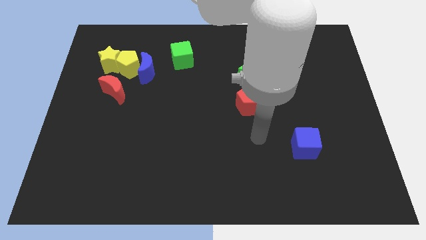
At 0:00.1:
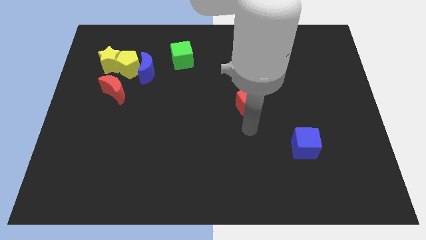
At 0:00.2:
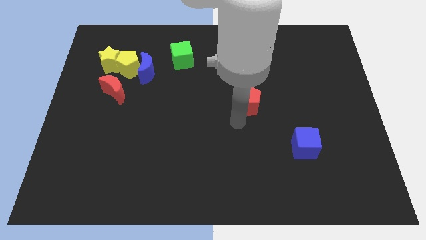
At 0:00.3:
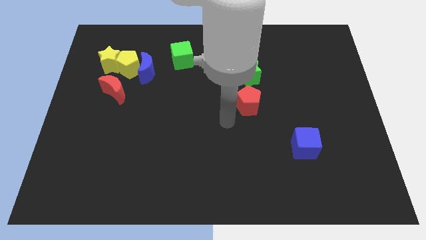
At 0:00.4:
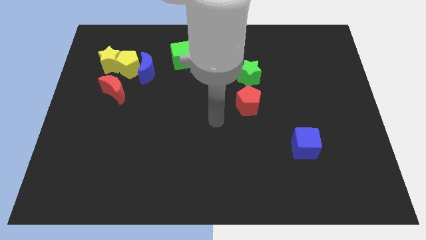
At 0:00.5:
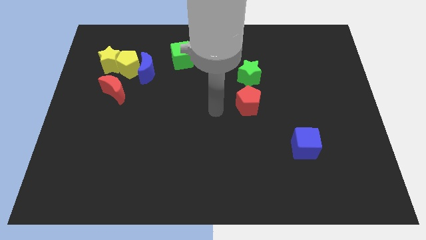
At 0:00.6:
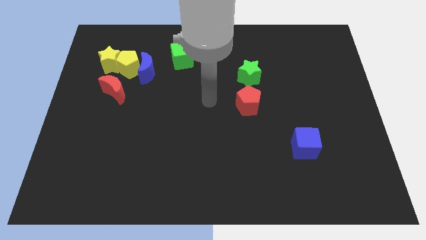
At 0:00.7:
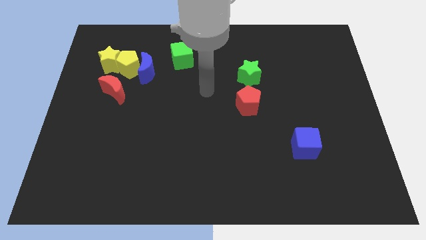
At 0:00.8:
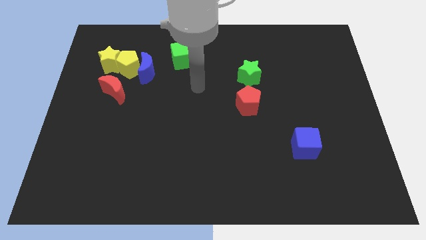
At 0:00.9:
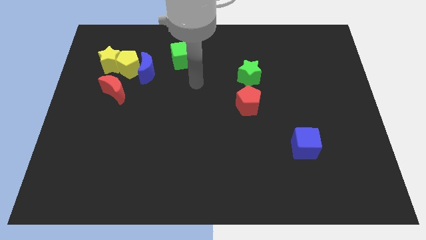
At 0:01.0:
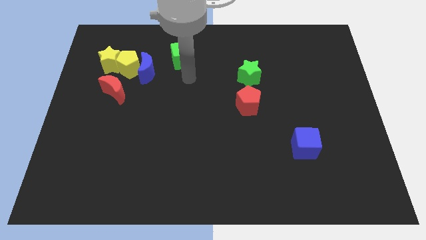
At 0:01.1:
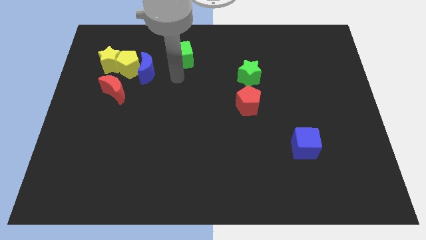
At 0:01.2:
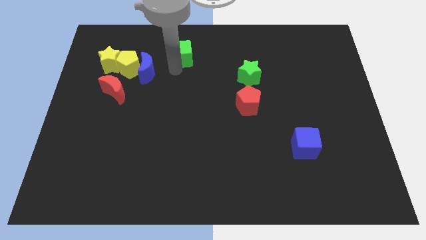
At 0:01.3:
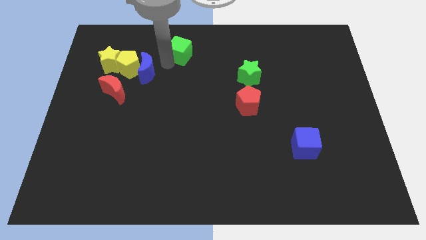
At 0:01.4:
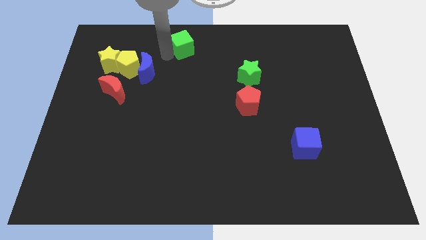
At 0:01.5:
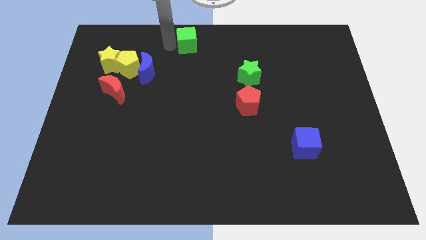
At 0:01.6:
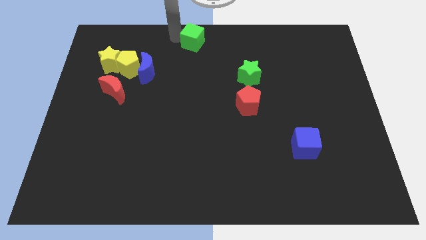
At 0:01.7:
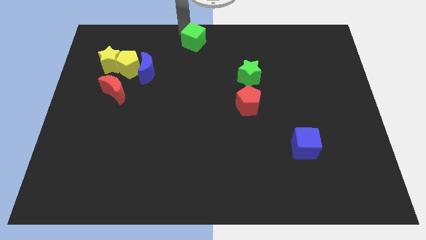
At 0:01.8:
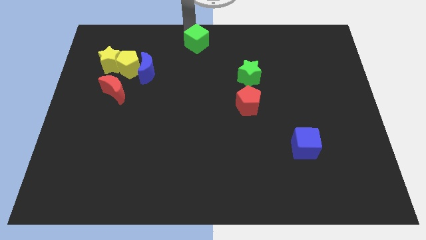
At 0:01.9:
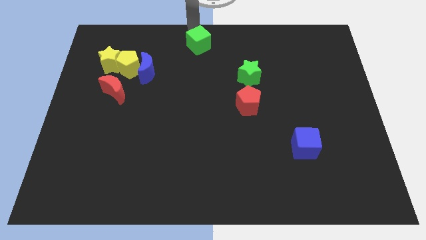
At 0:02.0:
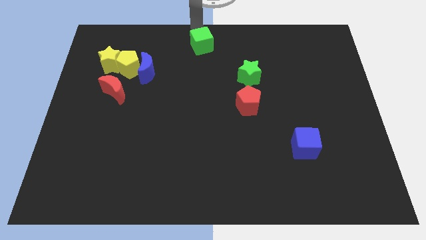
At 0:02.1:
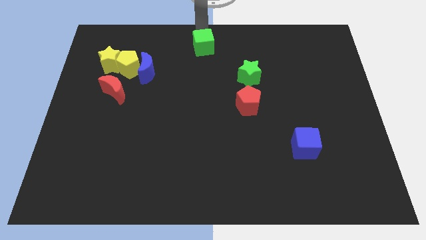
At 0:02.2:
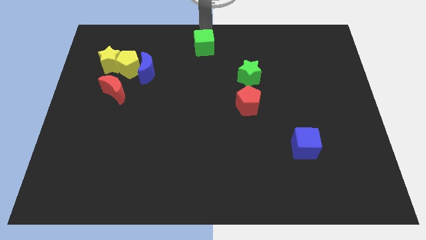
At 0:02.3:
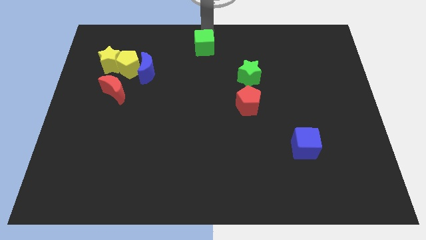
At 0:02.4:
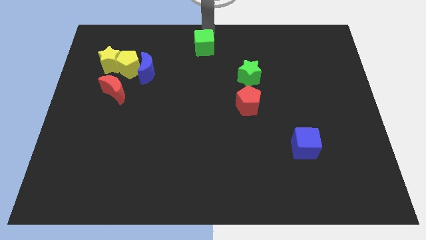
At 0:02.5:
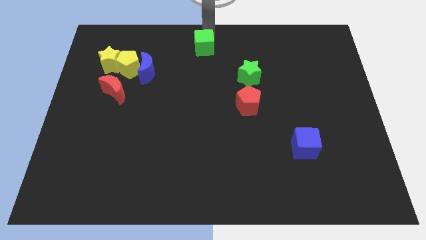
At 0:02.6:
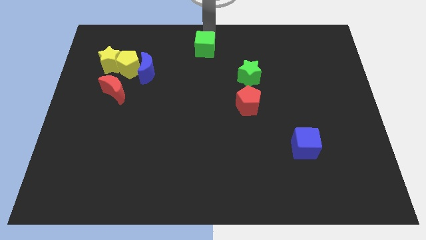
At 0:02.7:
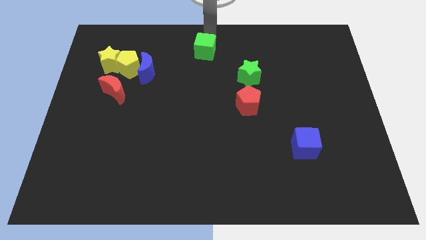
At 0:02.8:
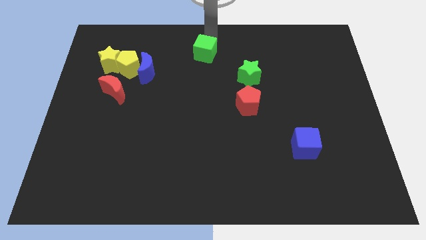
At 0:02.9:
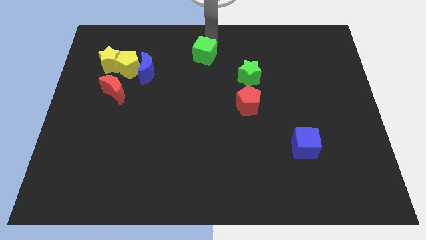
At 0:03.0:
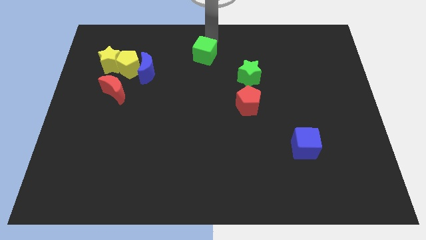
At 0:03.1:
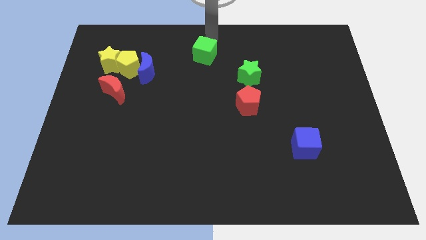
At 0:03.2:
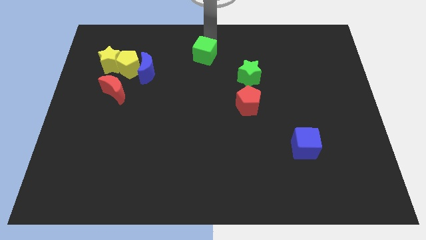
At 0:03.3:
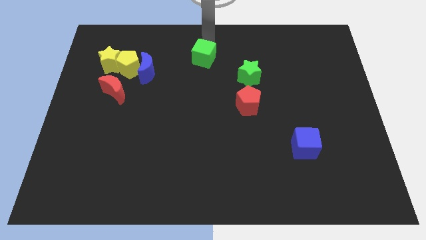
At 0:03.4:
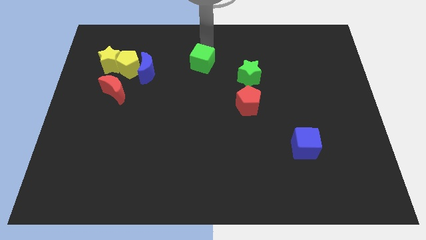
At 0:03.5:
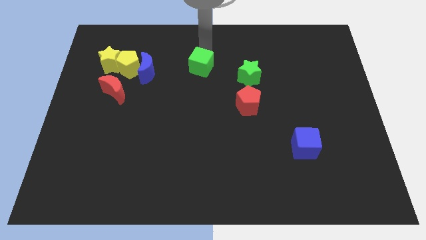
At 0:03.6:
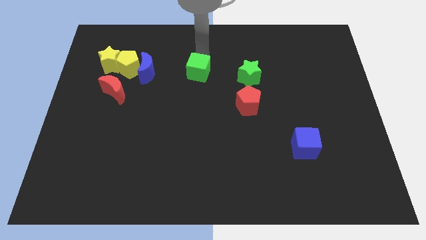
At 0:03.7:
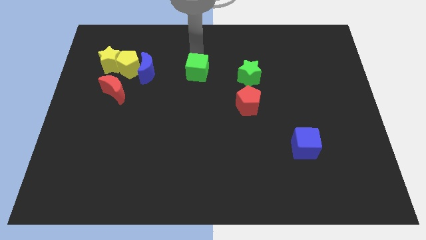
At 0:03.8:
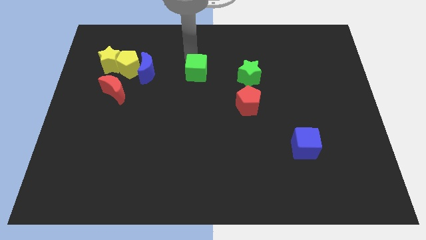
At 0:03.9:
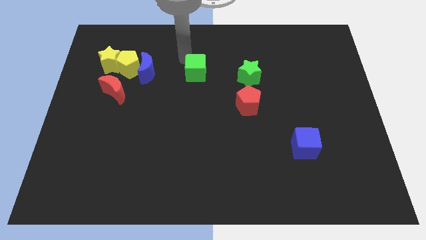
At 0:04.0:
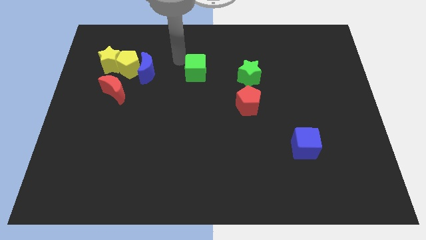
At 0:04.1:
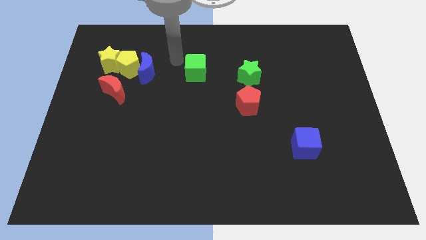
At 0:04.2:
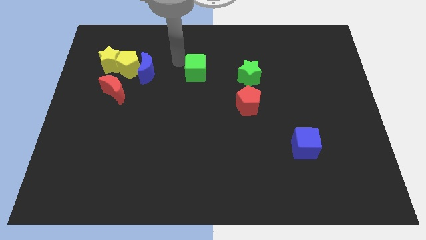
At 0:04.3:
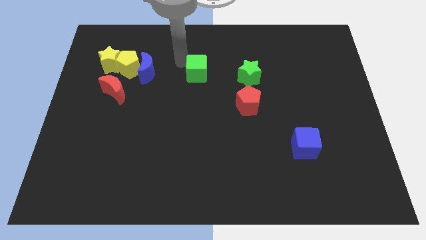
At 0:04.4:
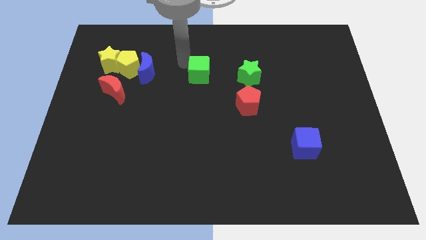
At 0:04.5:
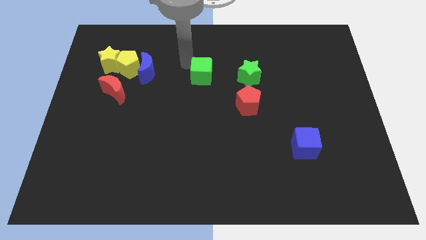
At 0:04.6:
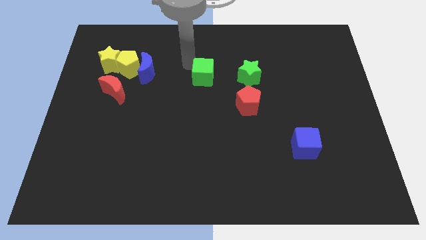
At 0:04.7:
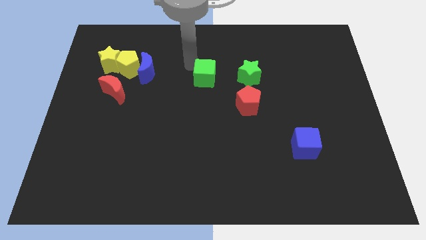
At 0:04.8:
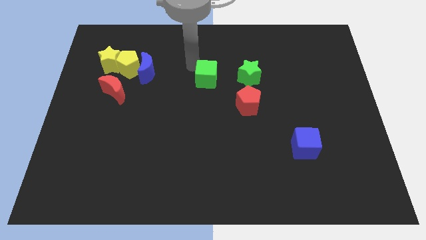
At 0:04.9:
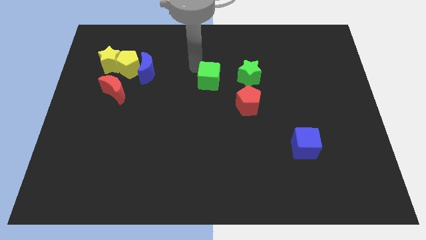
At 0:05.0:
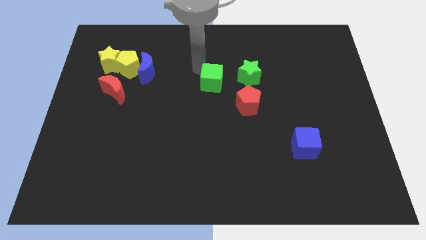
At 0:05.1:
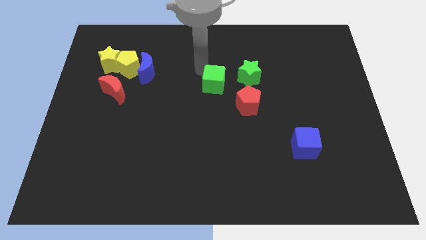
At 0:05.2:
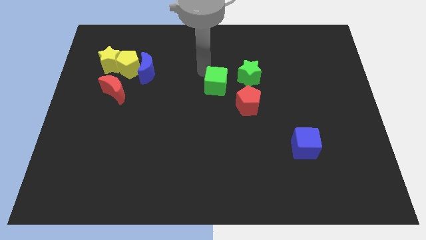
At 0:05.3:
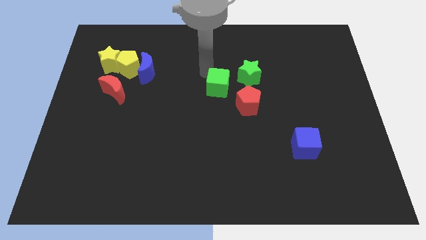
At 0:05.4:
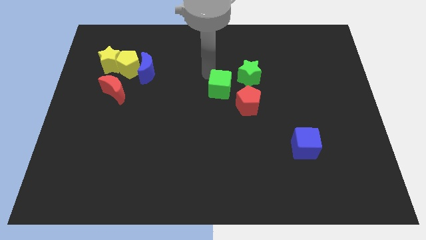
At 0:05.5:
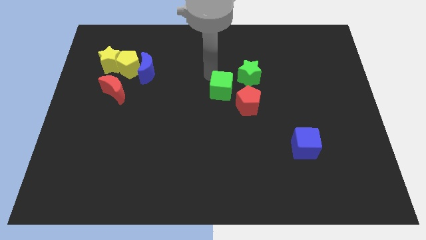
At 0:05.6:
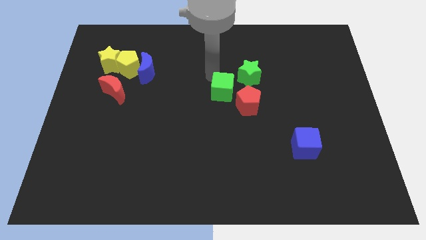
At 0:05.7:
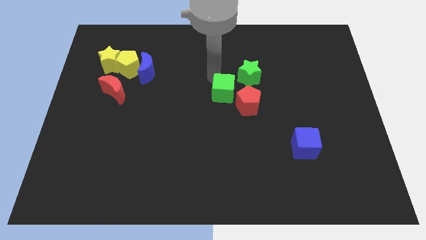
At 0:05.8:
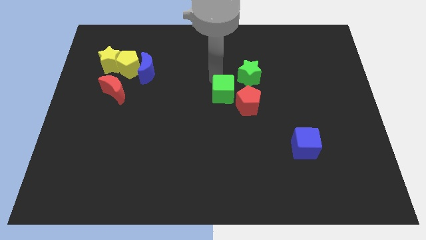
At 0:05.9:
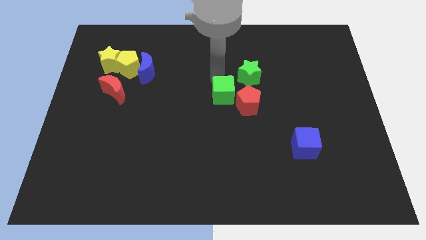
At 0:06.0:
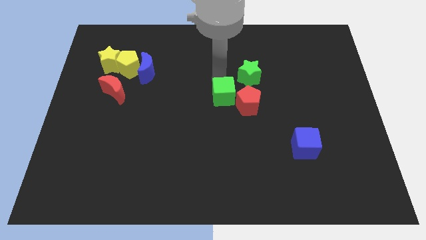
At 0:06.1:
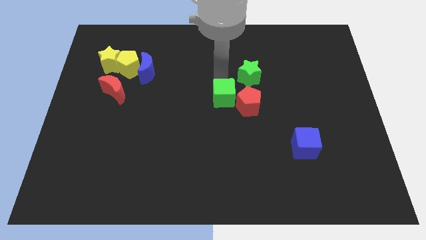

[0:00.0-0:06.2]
slide the green cube to the red pentagon

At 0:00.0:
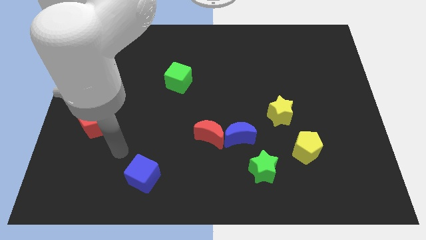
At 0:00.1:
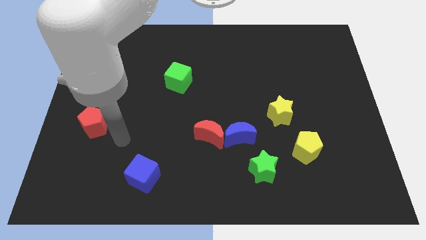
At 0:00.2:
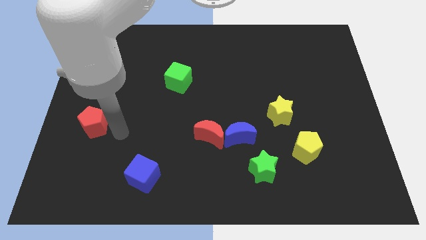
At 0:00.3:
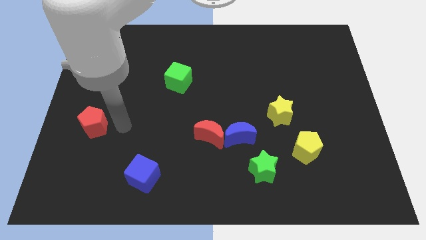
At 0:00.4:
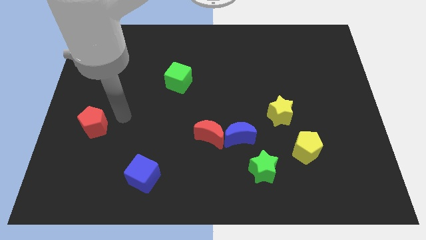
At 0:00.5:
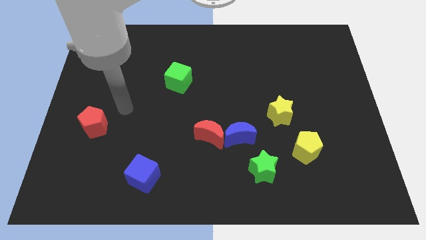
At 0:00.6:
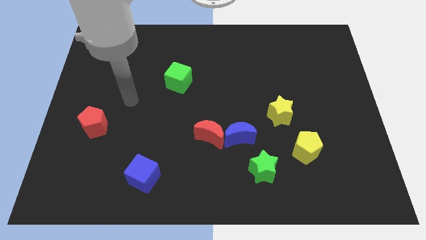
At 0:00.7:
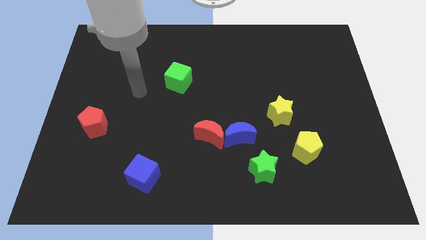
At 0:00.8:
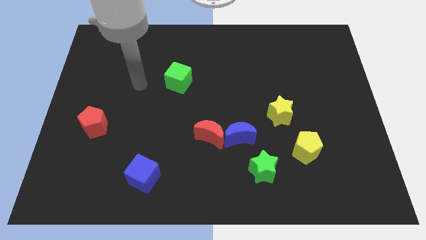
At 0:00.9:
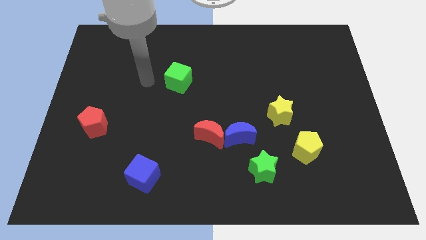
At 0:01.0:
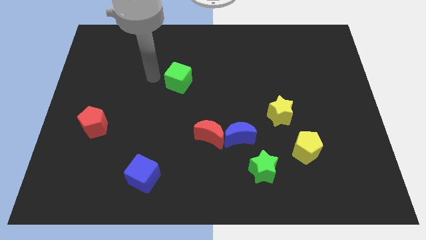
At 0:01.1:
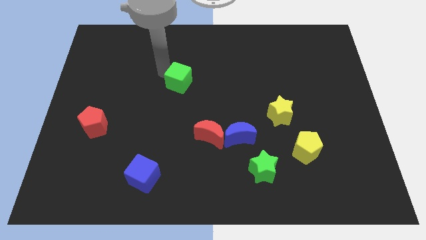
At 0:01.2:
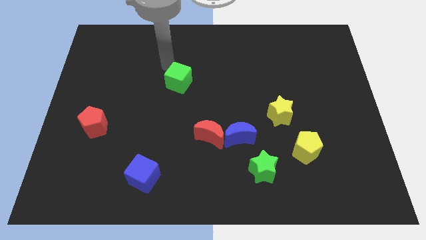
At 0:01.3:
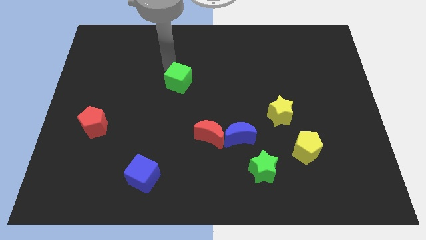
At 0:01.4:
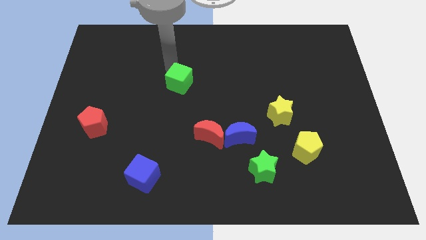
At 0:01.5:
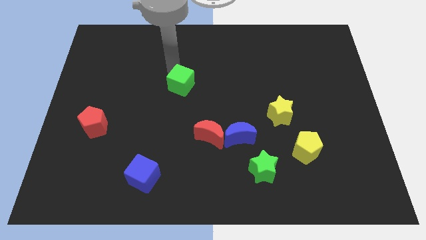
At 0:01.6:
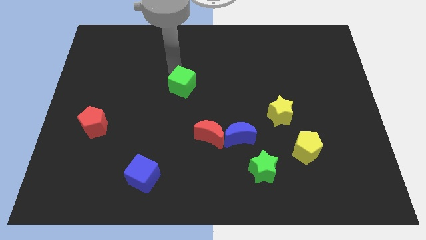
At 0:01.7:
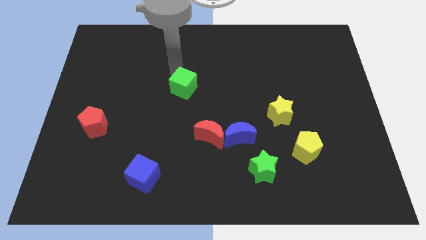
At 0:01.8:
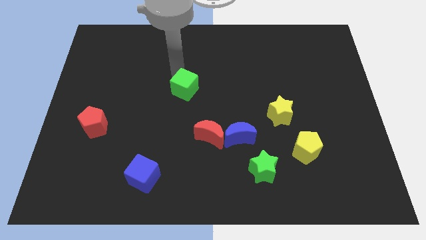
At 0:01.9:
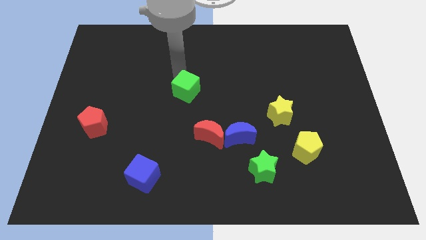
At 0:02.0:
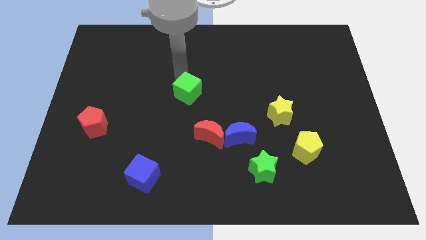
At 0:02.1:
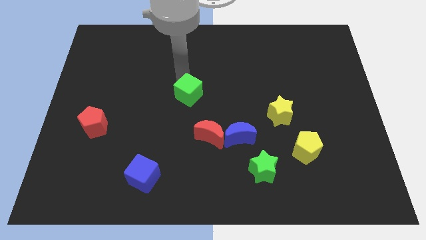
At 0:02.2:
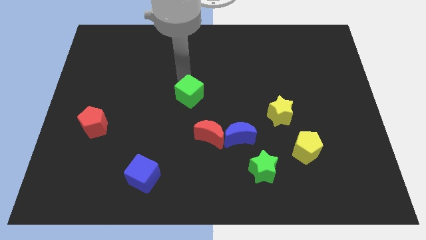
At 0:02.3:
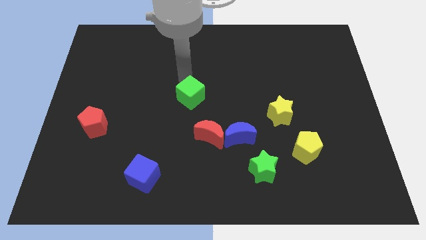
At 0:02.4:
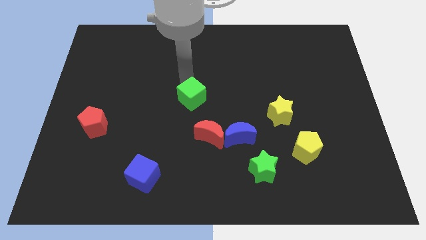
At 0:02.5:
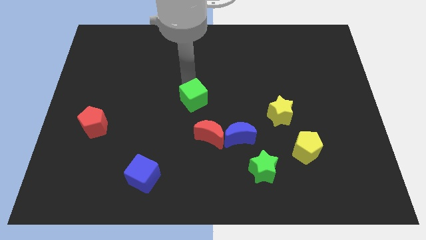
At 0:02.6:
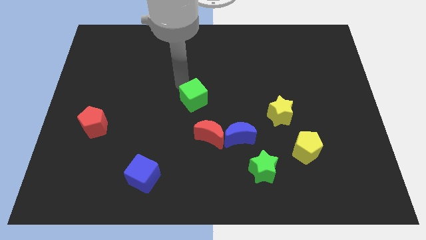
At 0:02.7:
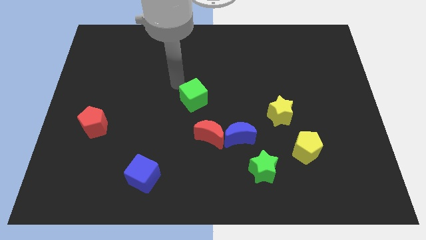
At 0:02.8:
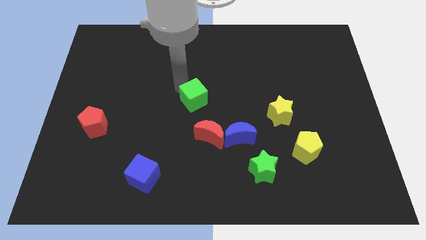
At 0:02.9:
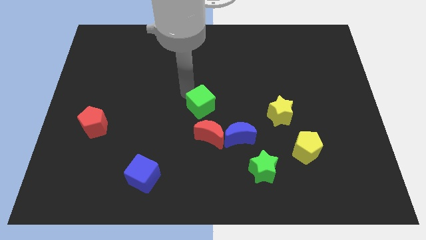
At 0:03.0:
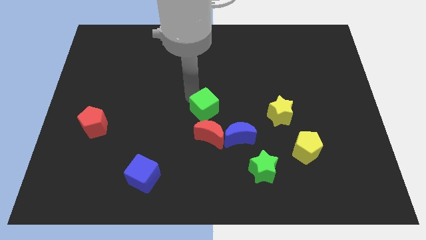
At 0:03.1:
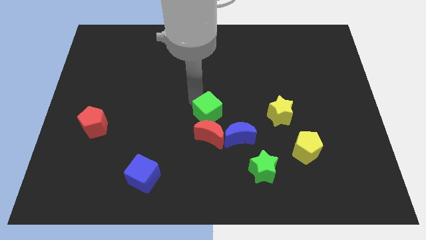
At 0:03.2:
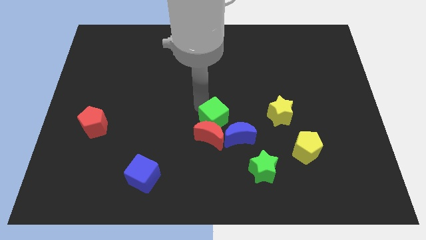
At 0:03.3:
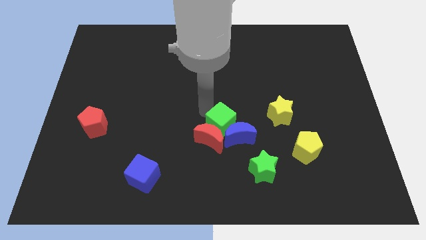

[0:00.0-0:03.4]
slide the green cube towards the blue moon
